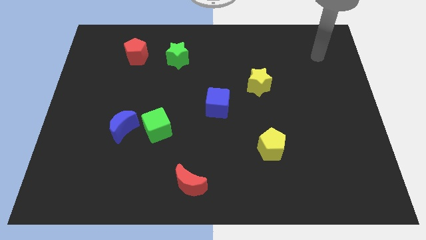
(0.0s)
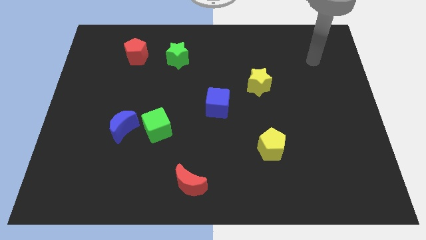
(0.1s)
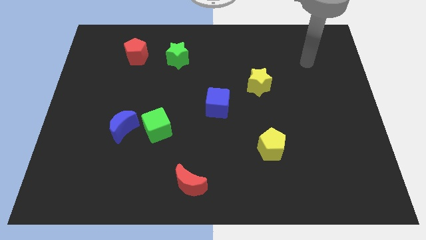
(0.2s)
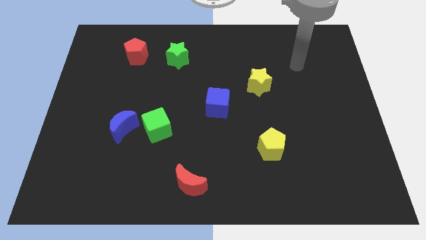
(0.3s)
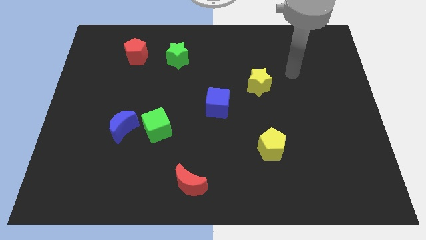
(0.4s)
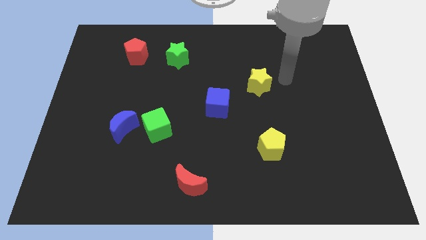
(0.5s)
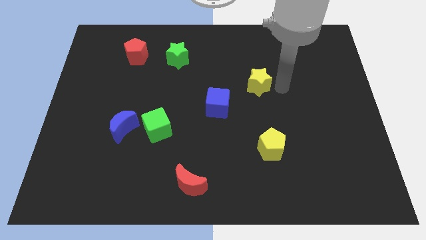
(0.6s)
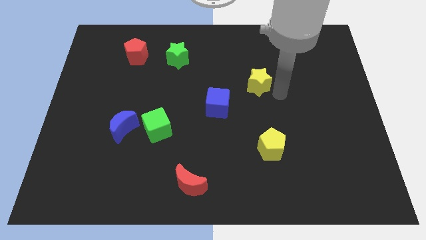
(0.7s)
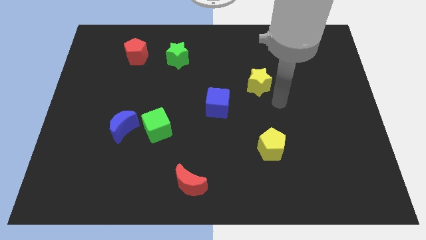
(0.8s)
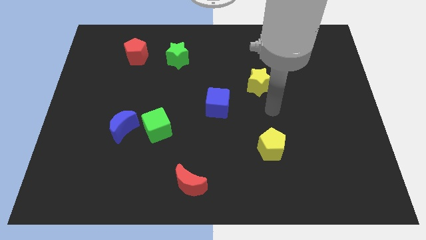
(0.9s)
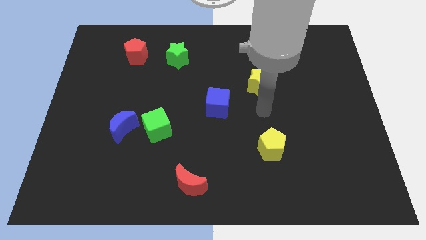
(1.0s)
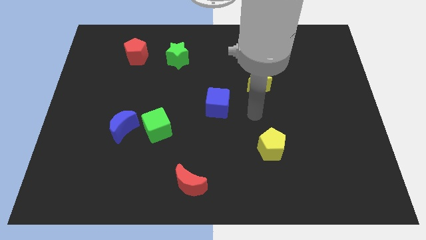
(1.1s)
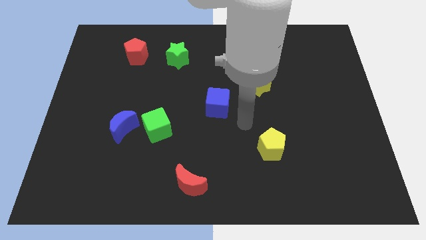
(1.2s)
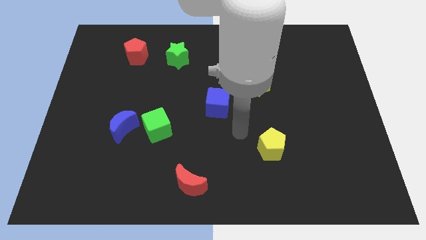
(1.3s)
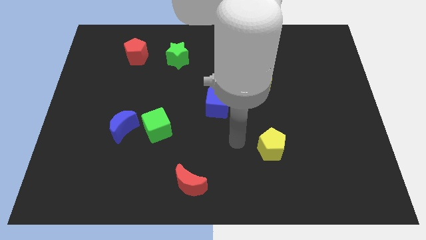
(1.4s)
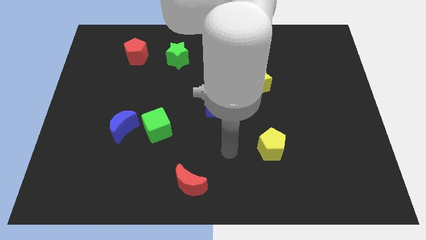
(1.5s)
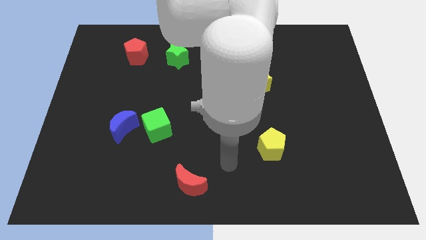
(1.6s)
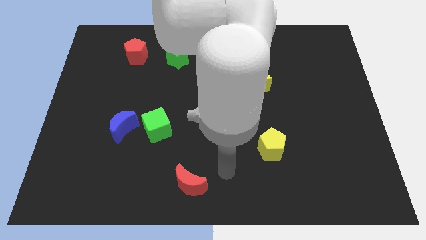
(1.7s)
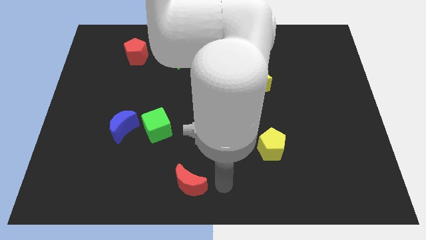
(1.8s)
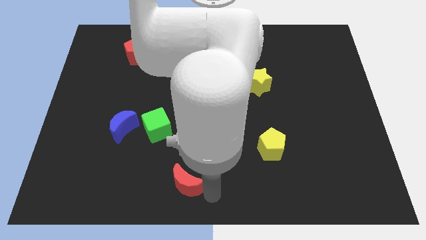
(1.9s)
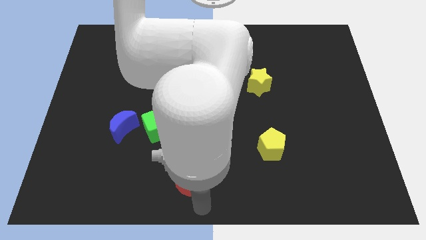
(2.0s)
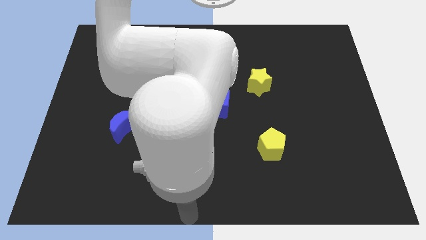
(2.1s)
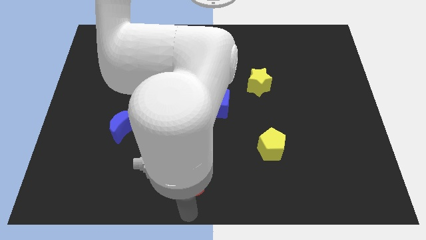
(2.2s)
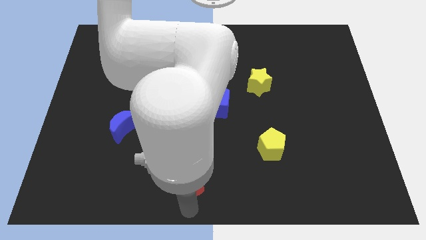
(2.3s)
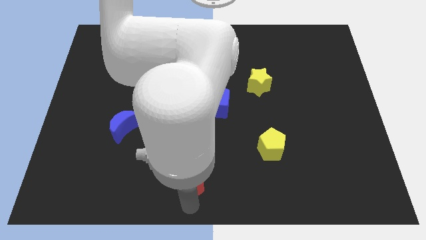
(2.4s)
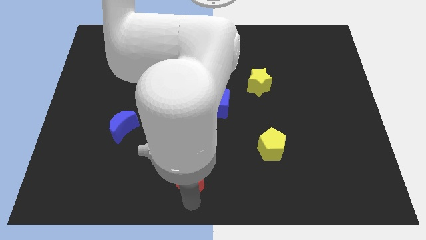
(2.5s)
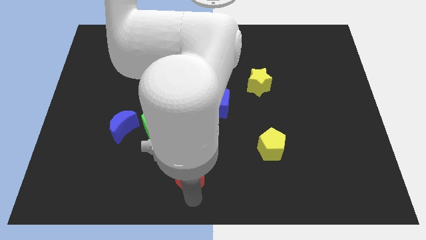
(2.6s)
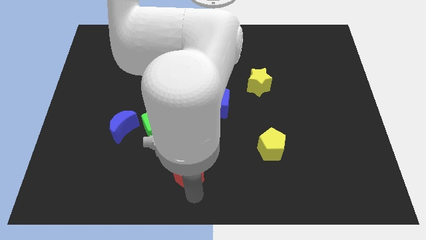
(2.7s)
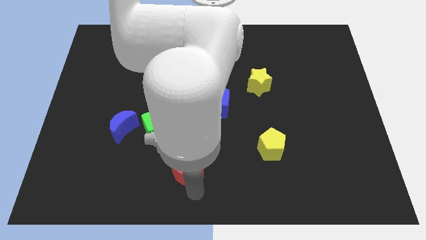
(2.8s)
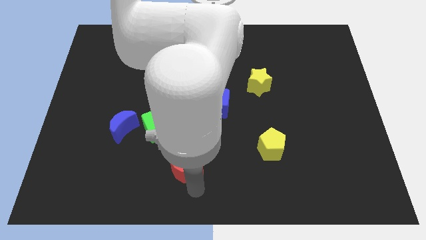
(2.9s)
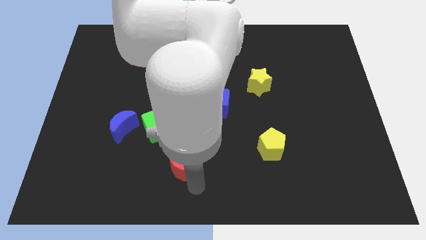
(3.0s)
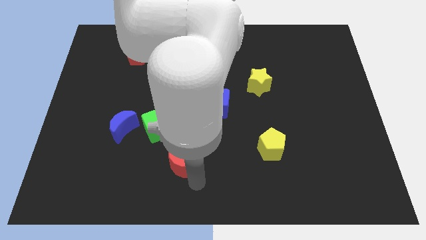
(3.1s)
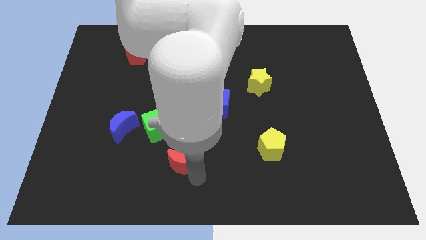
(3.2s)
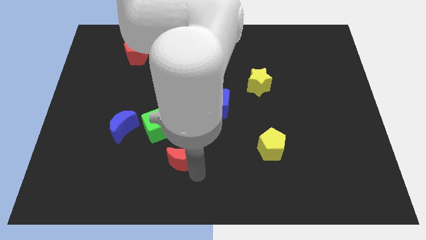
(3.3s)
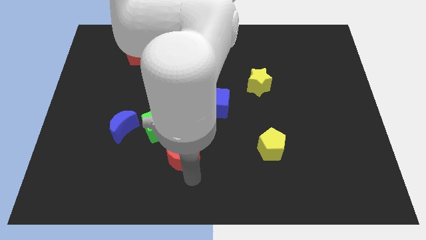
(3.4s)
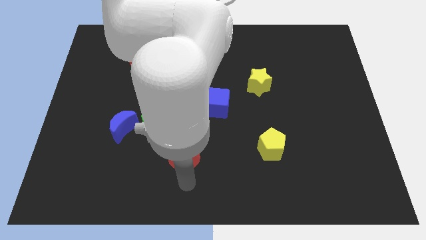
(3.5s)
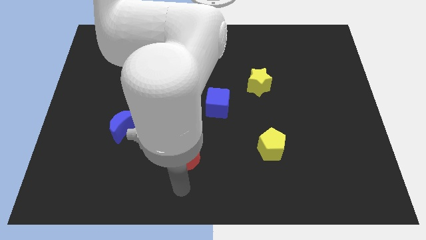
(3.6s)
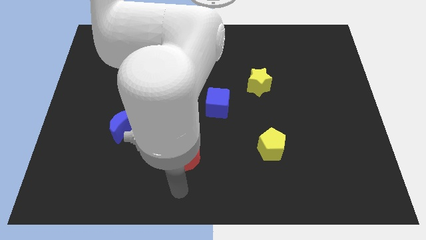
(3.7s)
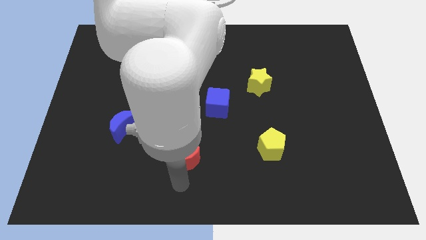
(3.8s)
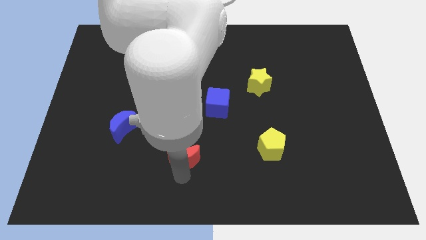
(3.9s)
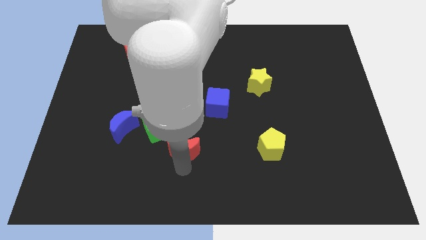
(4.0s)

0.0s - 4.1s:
push the red moon somewhat upwards

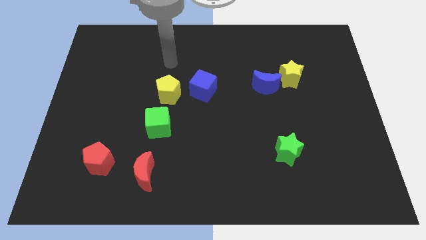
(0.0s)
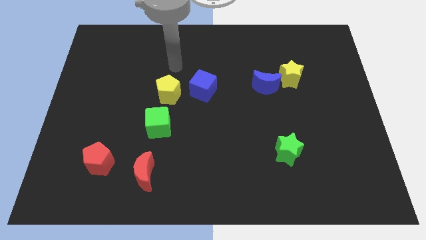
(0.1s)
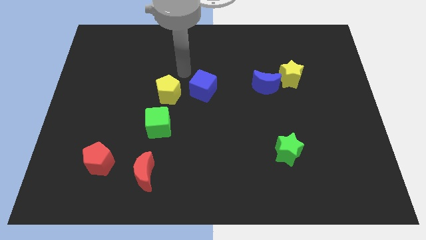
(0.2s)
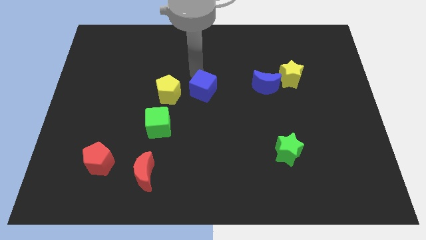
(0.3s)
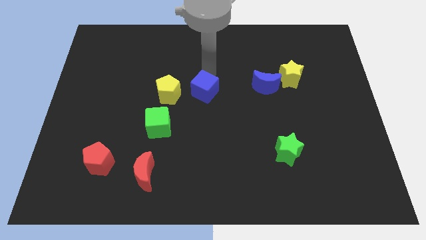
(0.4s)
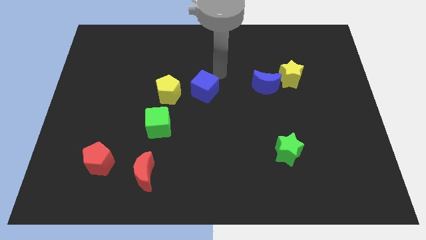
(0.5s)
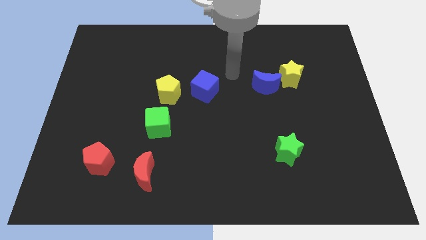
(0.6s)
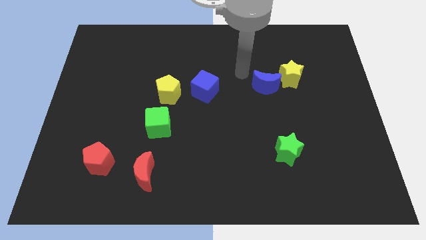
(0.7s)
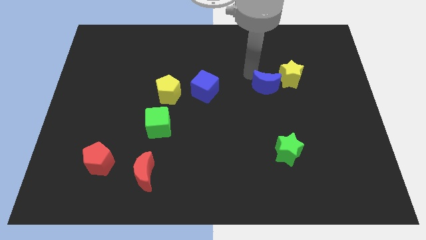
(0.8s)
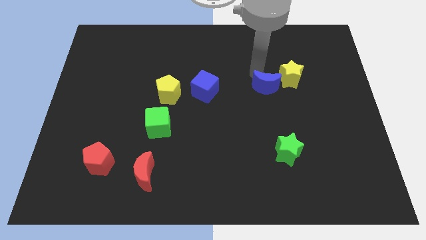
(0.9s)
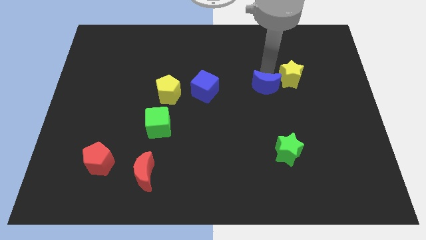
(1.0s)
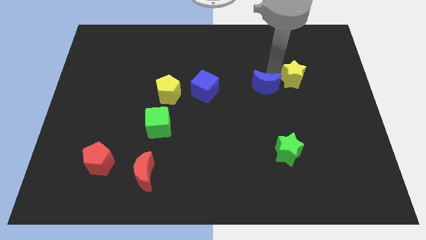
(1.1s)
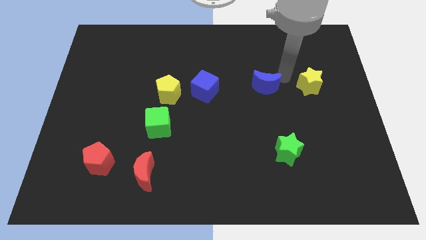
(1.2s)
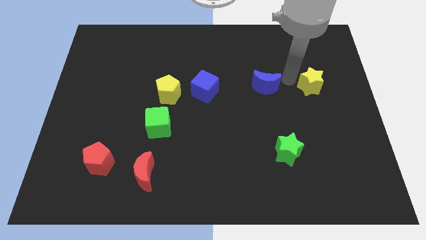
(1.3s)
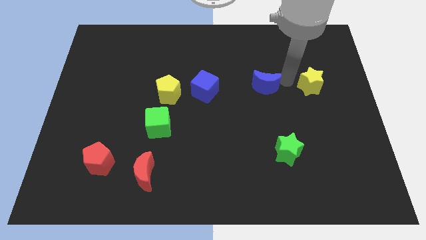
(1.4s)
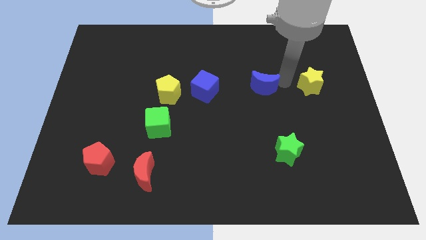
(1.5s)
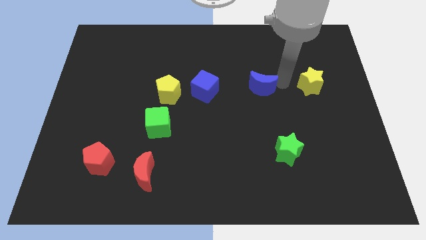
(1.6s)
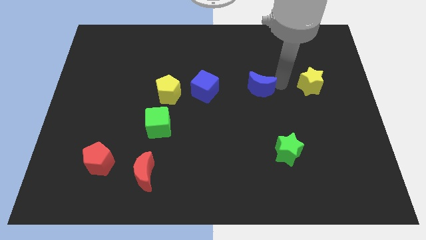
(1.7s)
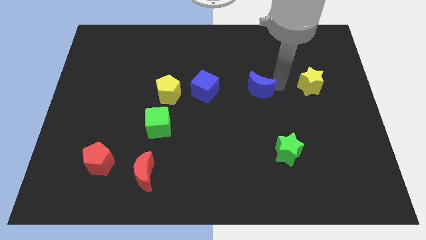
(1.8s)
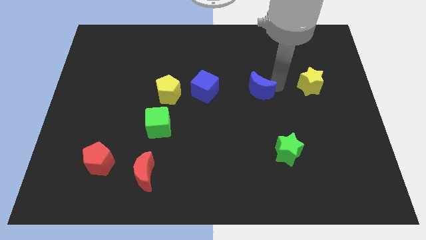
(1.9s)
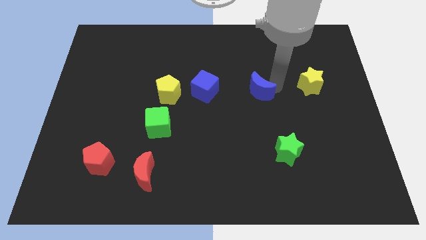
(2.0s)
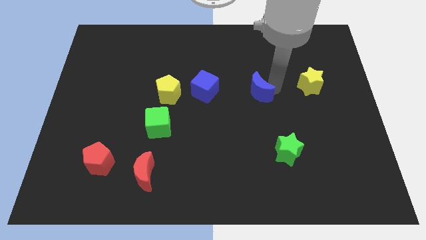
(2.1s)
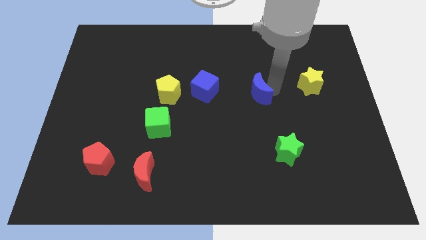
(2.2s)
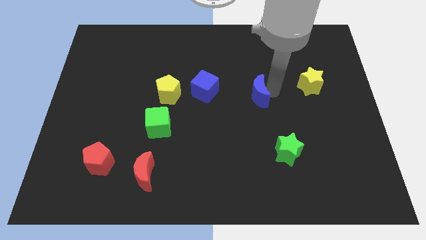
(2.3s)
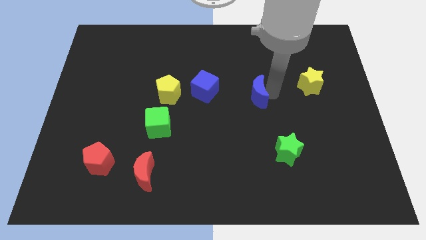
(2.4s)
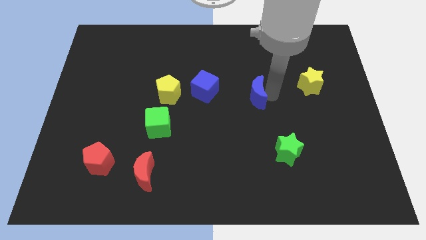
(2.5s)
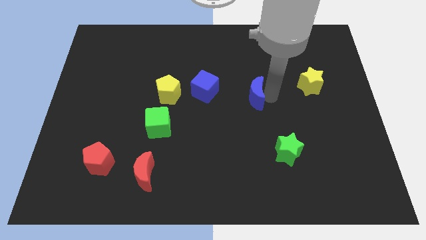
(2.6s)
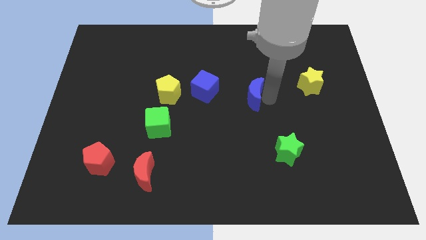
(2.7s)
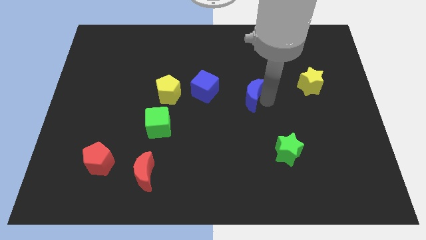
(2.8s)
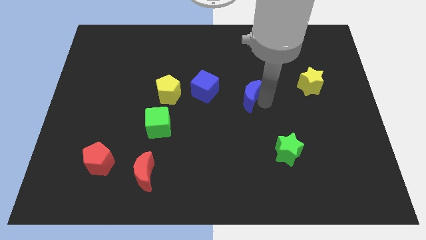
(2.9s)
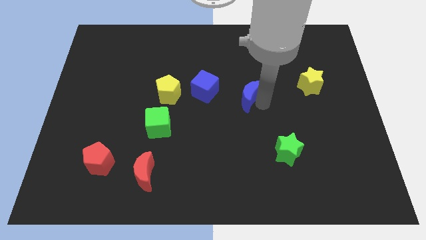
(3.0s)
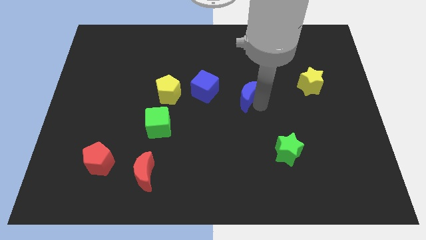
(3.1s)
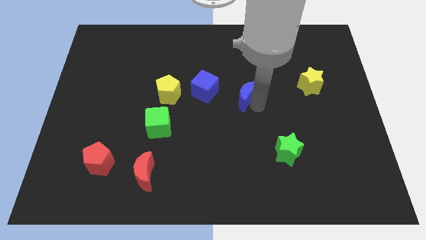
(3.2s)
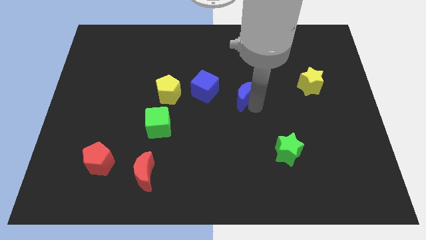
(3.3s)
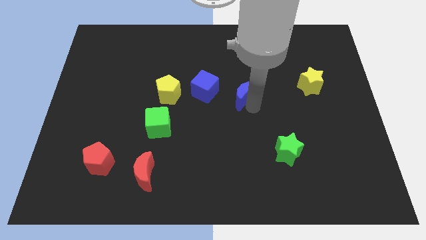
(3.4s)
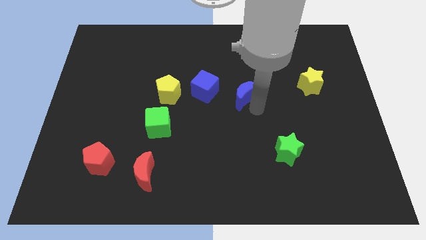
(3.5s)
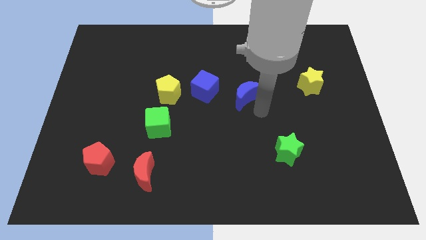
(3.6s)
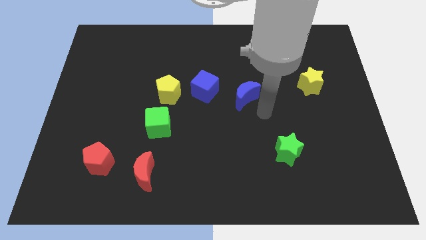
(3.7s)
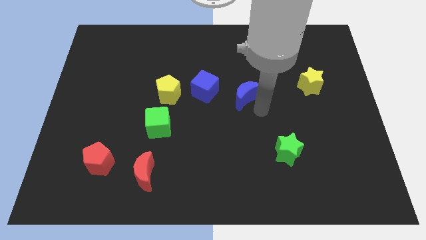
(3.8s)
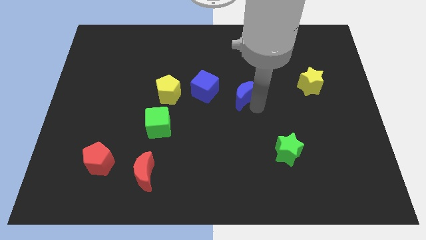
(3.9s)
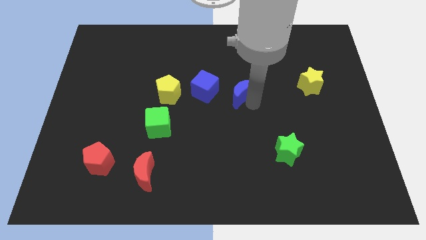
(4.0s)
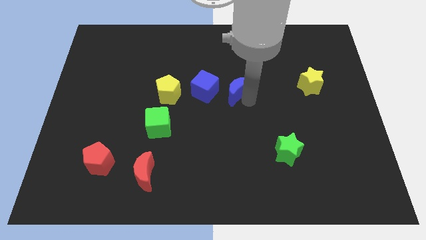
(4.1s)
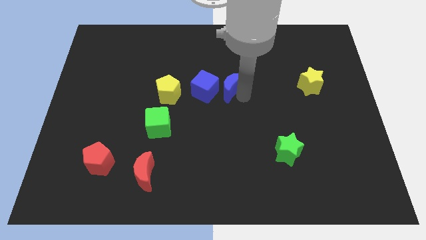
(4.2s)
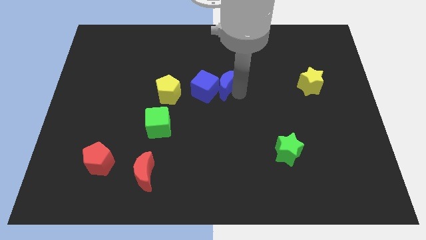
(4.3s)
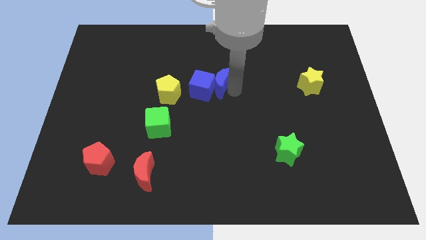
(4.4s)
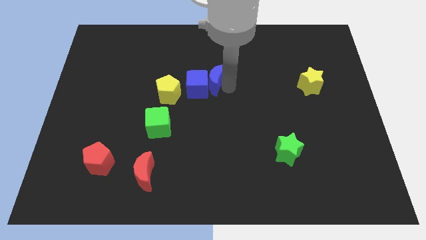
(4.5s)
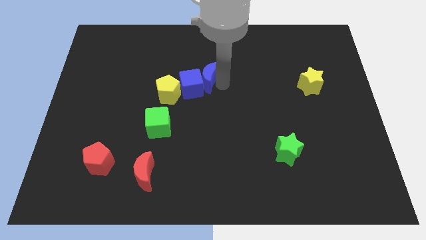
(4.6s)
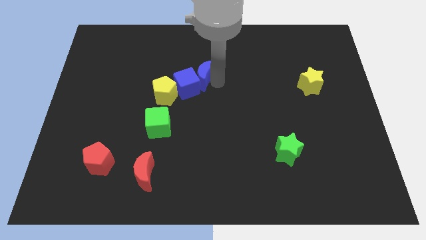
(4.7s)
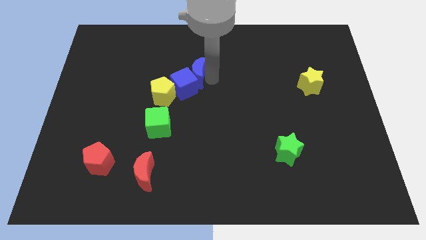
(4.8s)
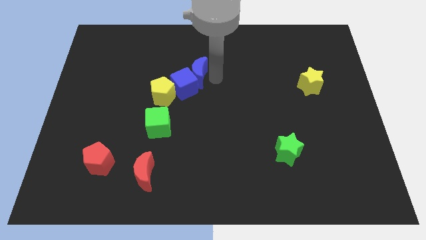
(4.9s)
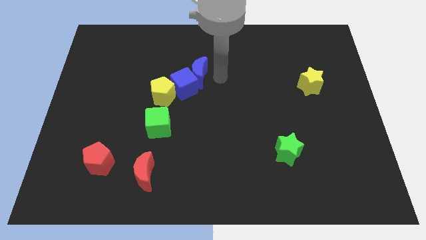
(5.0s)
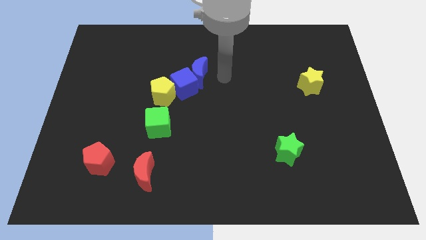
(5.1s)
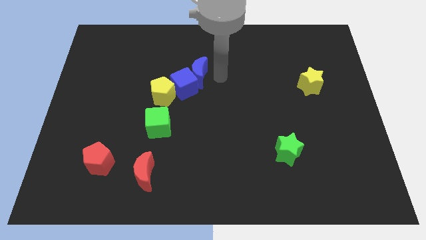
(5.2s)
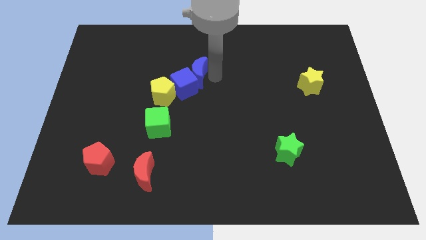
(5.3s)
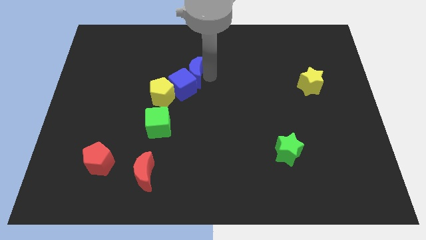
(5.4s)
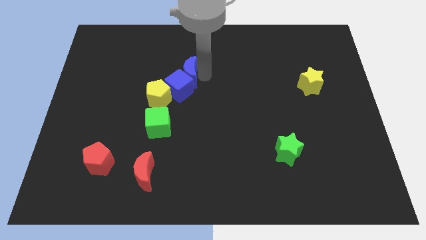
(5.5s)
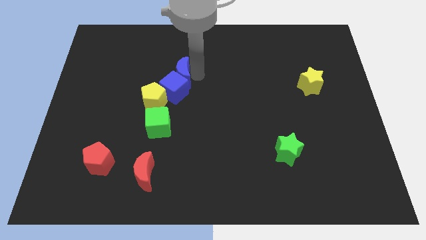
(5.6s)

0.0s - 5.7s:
move the blue moon left
